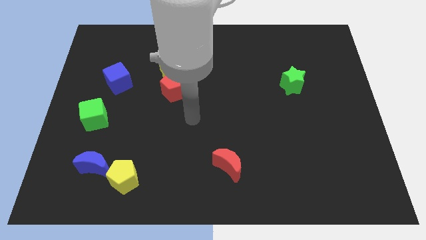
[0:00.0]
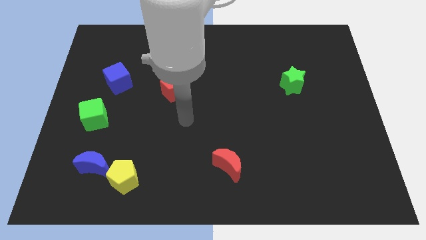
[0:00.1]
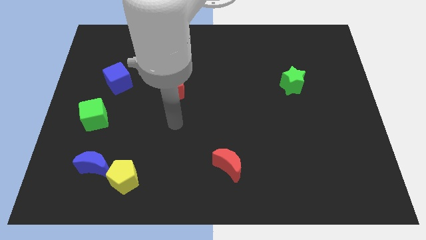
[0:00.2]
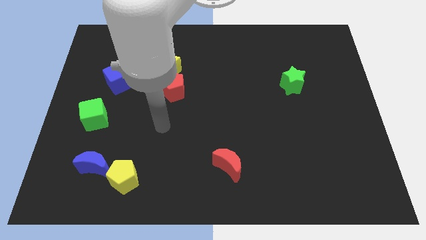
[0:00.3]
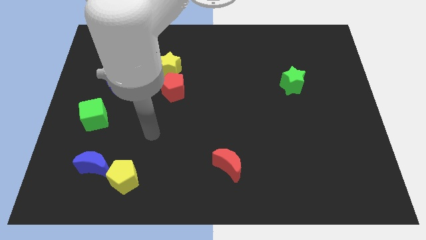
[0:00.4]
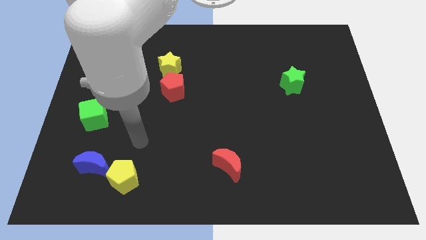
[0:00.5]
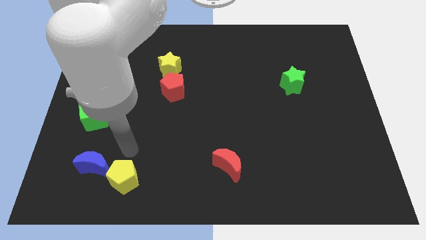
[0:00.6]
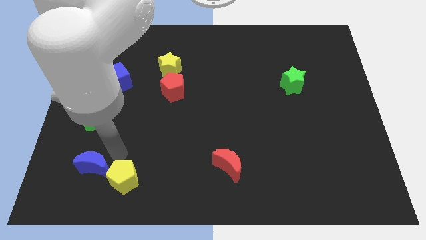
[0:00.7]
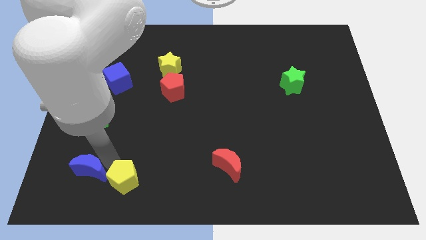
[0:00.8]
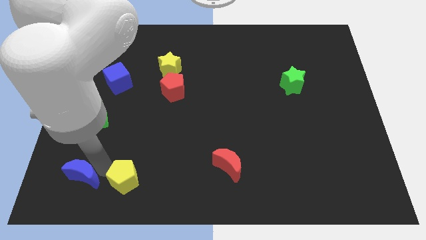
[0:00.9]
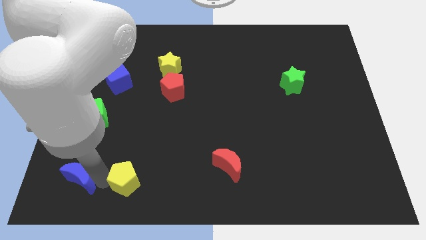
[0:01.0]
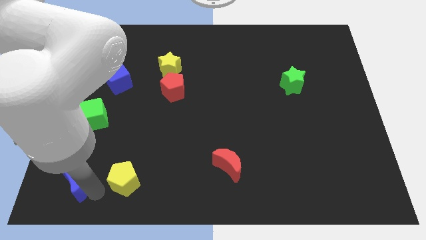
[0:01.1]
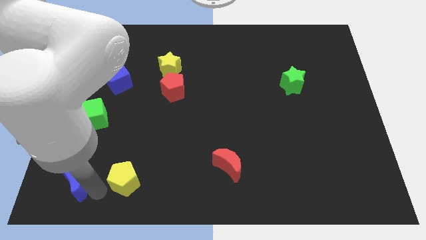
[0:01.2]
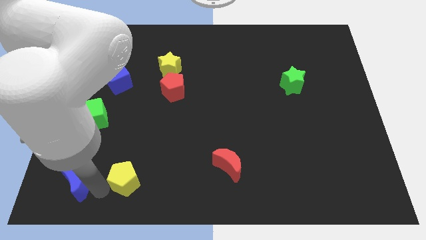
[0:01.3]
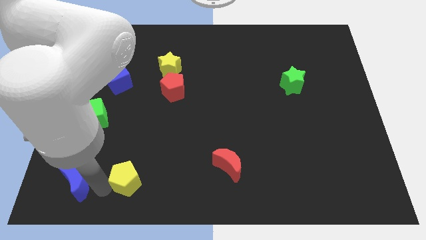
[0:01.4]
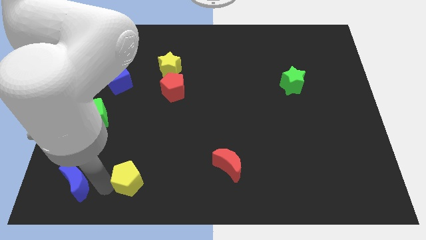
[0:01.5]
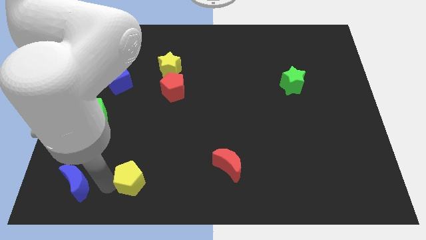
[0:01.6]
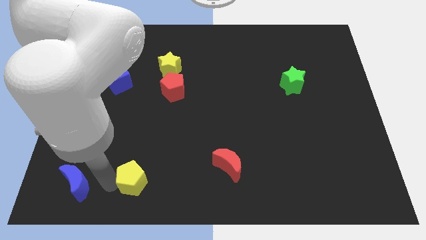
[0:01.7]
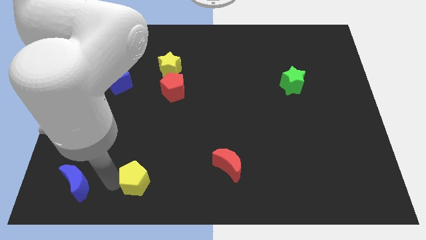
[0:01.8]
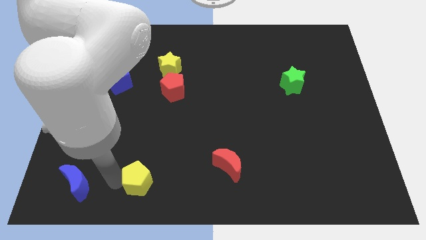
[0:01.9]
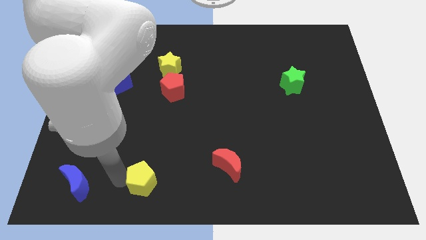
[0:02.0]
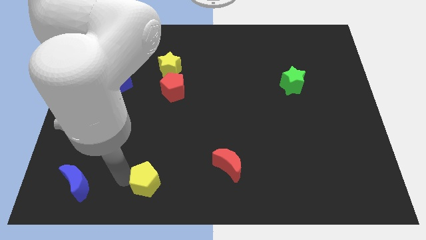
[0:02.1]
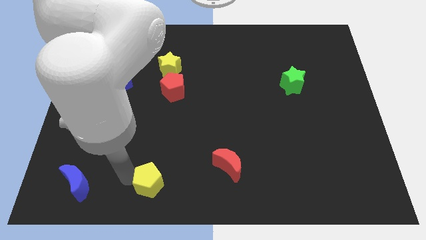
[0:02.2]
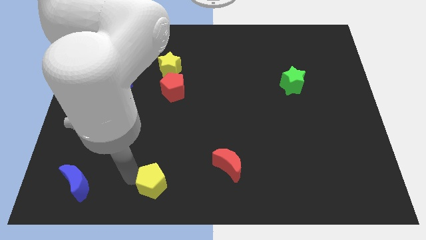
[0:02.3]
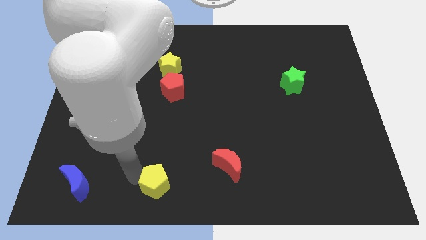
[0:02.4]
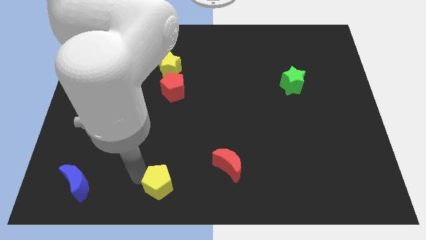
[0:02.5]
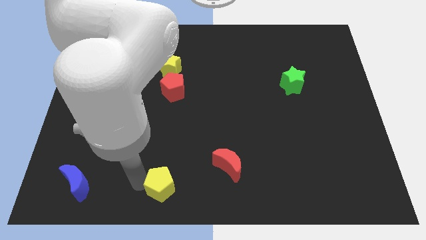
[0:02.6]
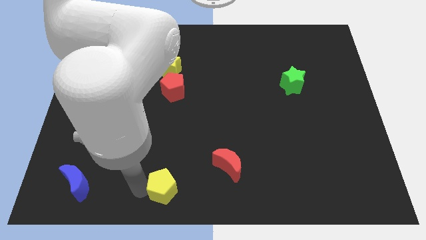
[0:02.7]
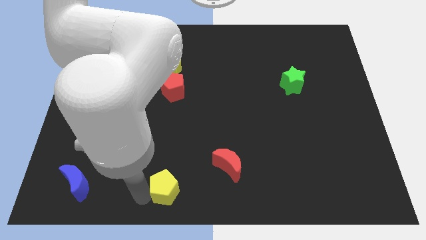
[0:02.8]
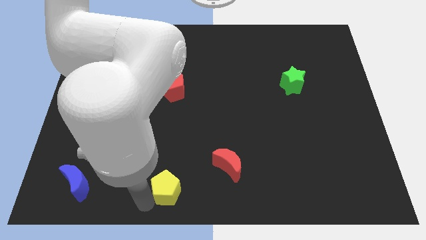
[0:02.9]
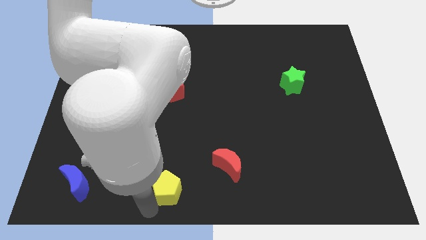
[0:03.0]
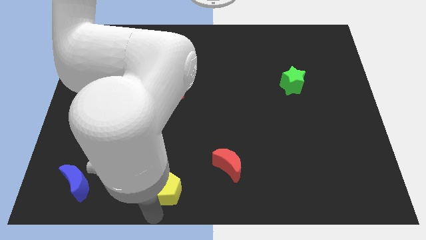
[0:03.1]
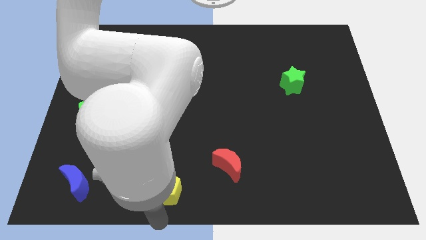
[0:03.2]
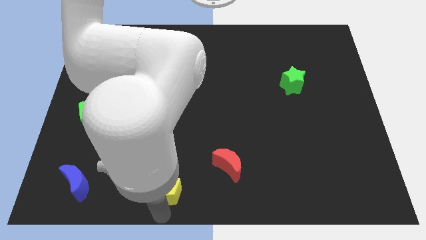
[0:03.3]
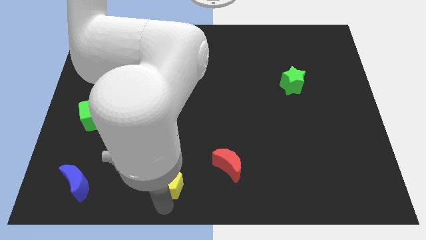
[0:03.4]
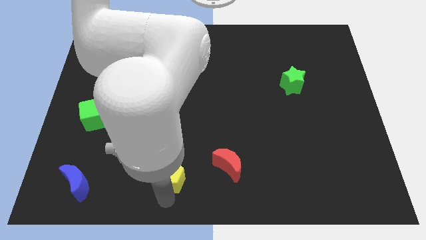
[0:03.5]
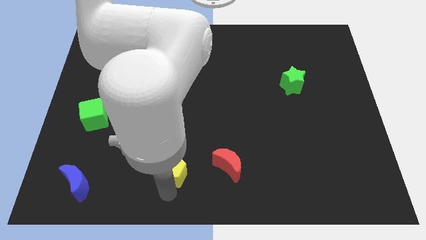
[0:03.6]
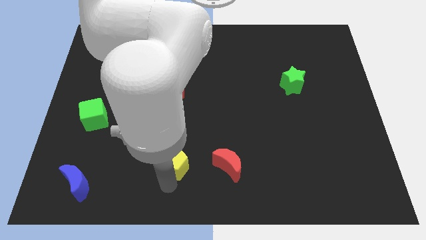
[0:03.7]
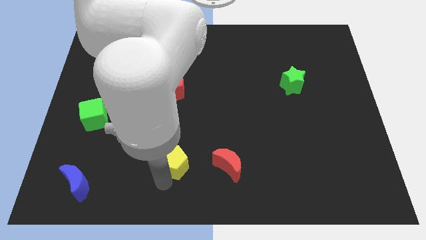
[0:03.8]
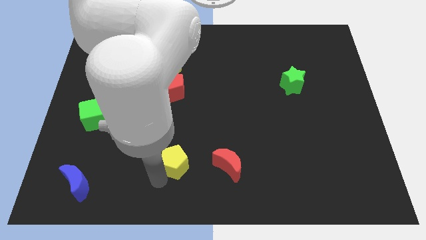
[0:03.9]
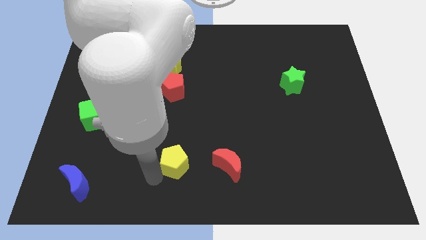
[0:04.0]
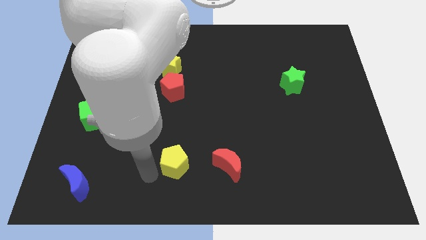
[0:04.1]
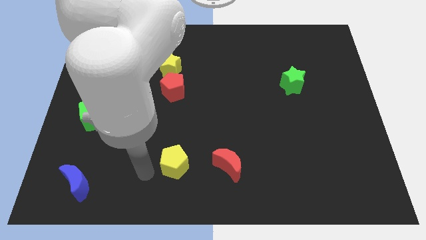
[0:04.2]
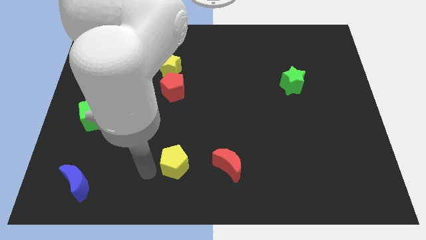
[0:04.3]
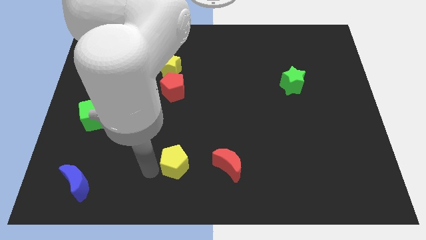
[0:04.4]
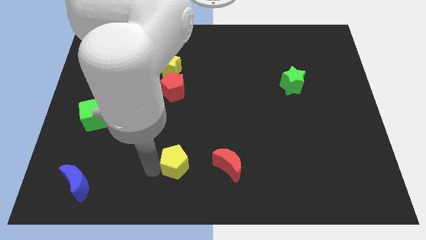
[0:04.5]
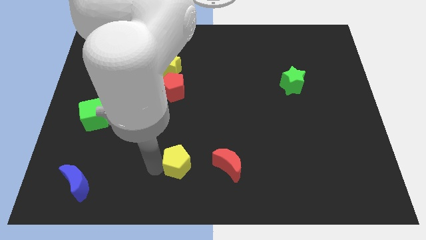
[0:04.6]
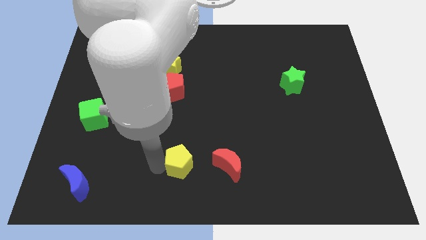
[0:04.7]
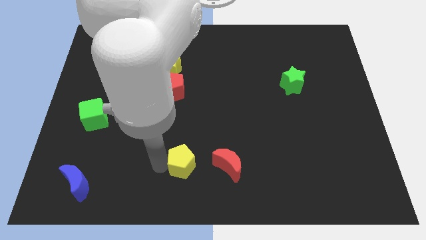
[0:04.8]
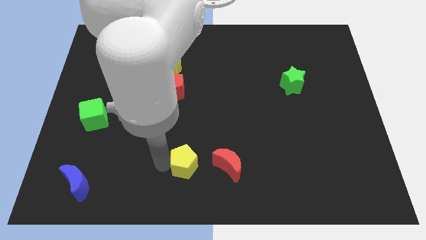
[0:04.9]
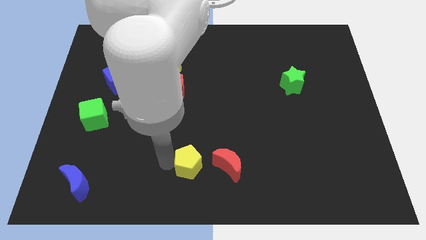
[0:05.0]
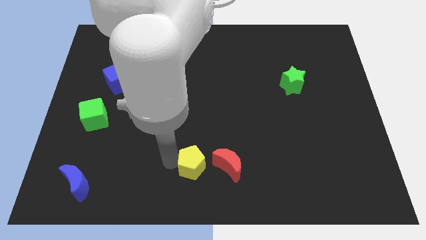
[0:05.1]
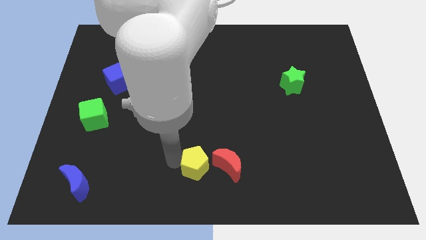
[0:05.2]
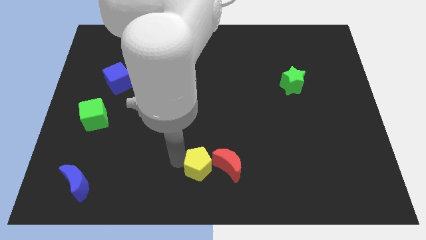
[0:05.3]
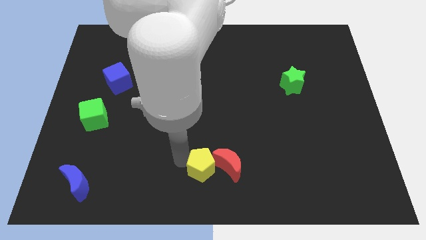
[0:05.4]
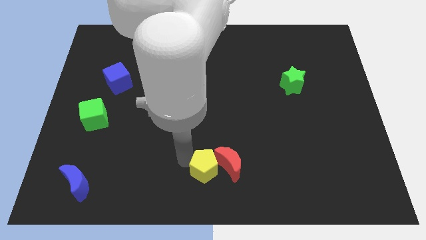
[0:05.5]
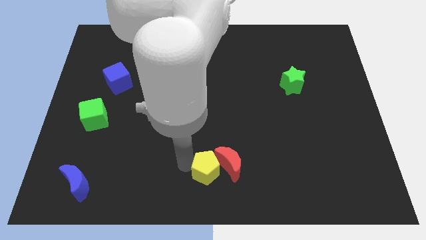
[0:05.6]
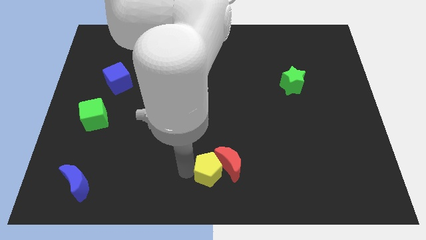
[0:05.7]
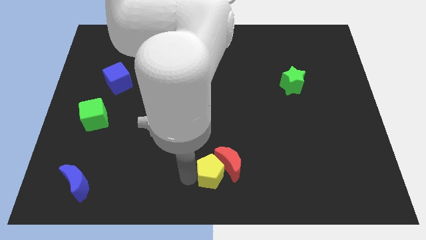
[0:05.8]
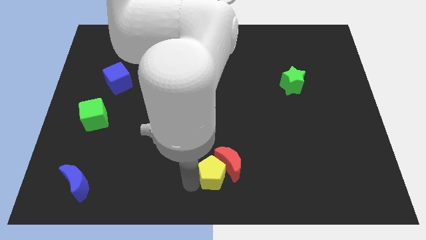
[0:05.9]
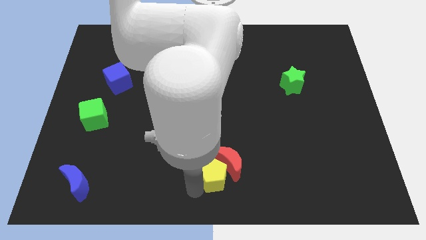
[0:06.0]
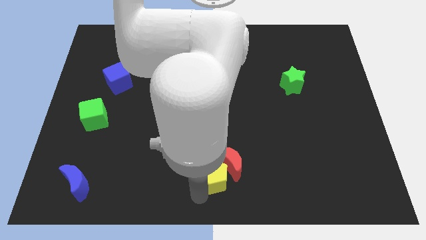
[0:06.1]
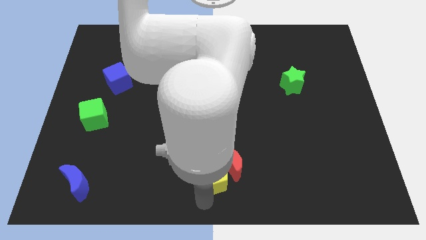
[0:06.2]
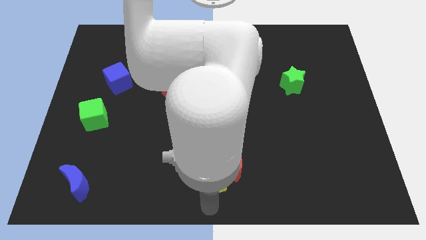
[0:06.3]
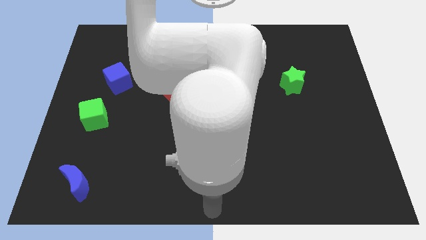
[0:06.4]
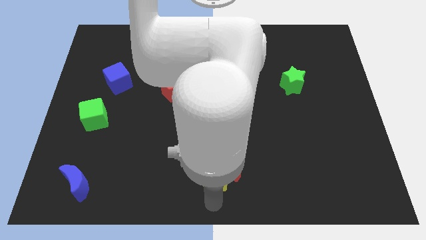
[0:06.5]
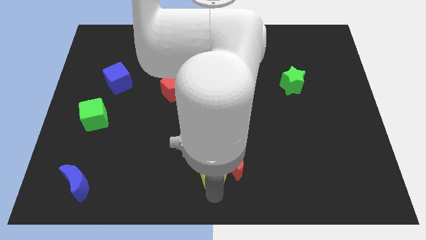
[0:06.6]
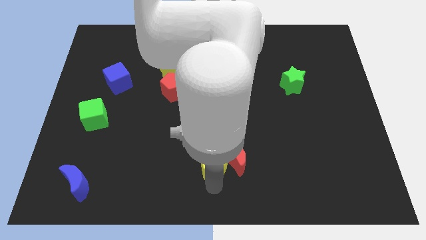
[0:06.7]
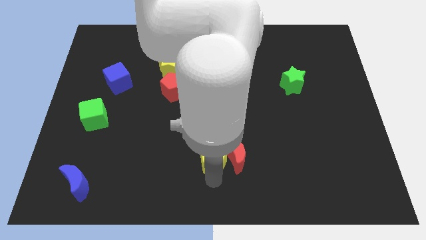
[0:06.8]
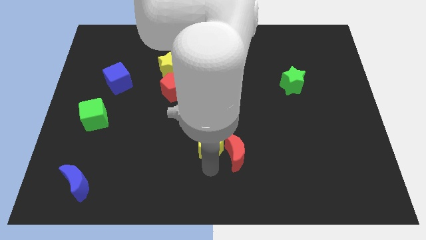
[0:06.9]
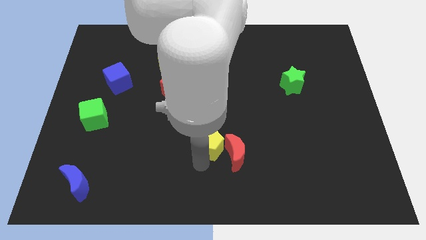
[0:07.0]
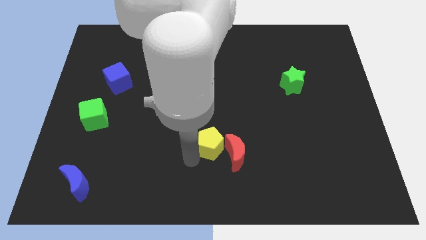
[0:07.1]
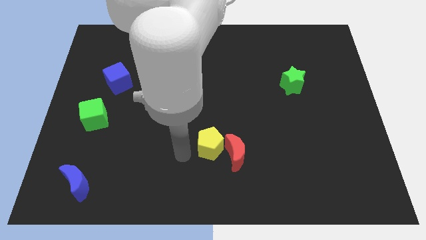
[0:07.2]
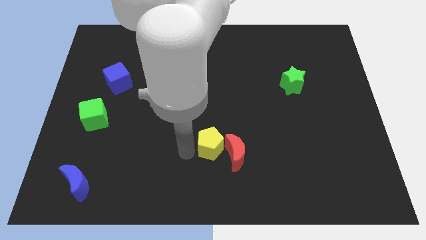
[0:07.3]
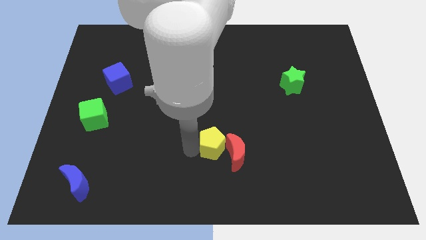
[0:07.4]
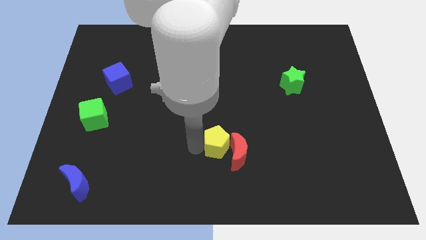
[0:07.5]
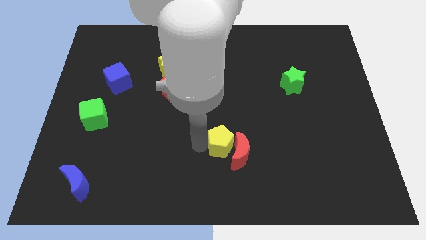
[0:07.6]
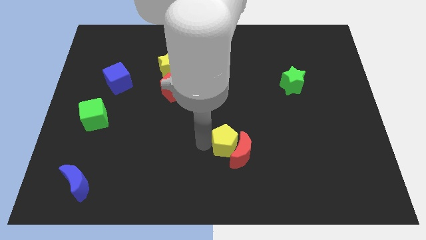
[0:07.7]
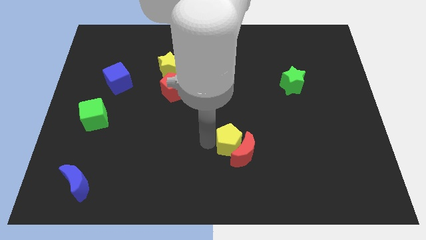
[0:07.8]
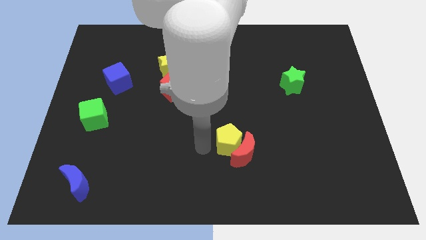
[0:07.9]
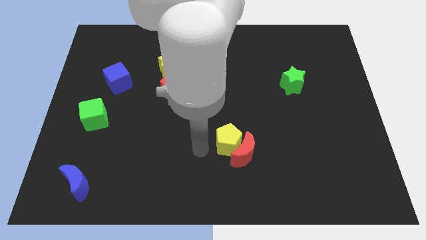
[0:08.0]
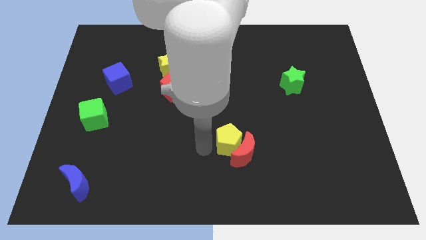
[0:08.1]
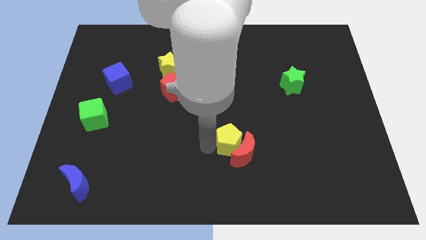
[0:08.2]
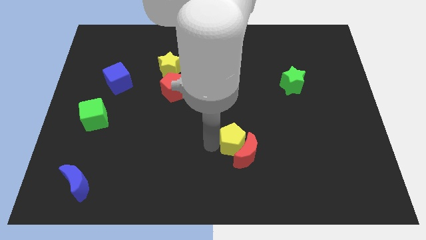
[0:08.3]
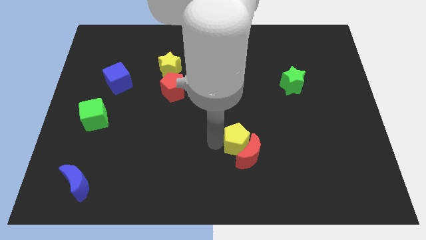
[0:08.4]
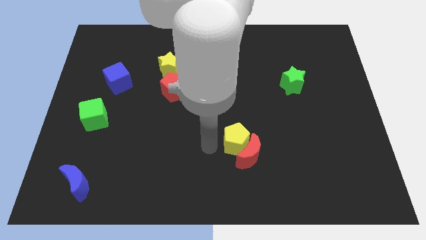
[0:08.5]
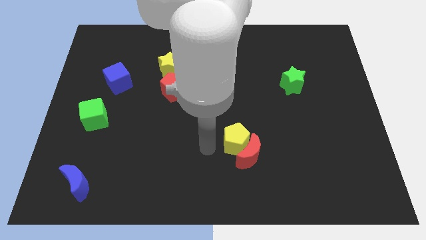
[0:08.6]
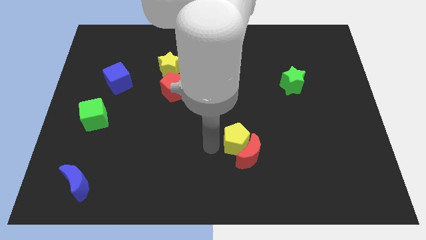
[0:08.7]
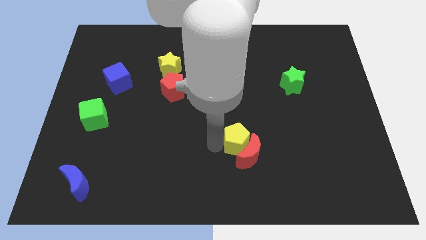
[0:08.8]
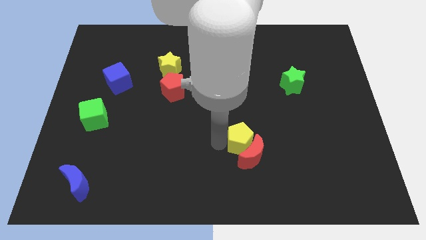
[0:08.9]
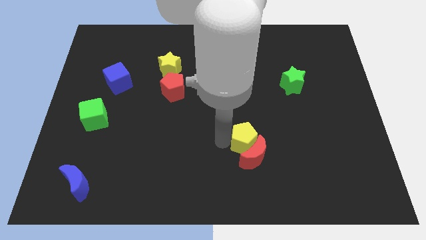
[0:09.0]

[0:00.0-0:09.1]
slide the yellow pentagon diagonally up and to the right of the red moon
